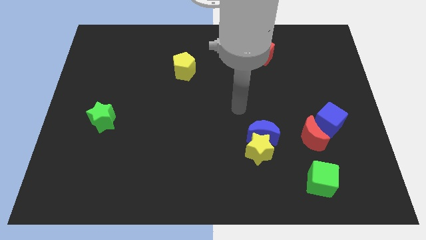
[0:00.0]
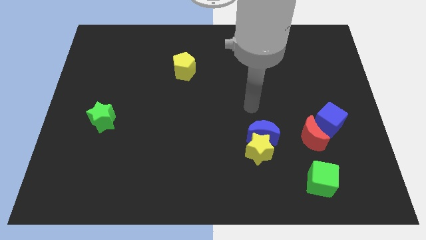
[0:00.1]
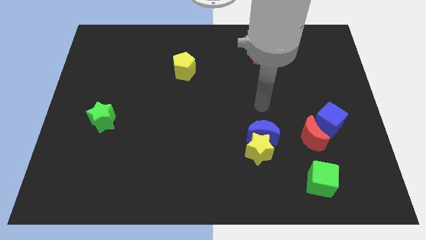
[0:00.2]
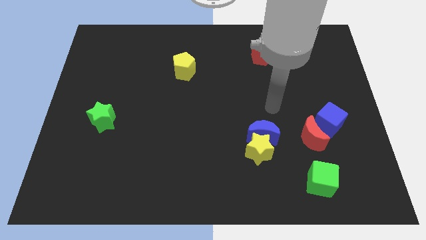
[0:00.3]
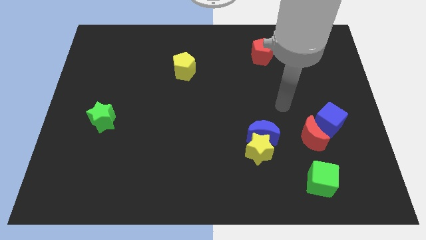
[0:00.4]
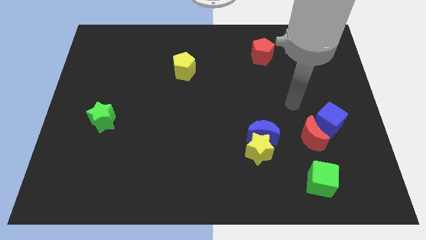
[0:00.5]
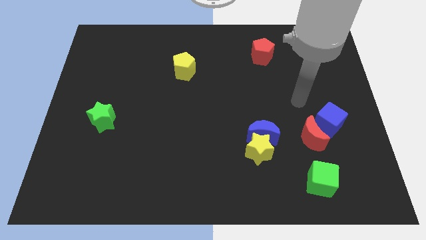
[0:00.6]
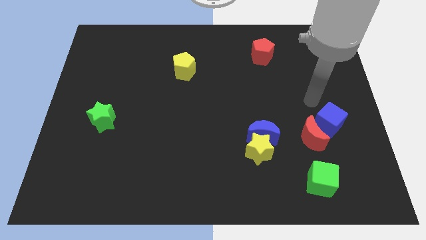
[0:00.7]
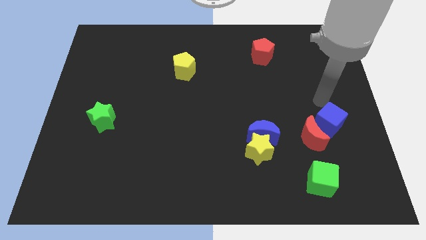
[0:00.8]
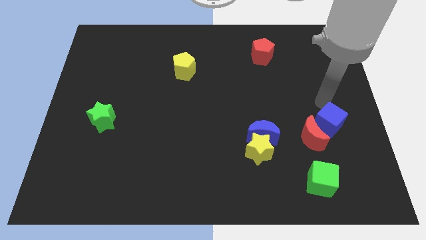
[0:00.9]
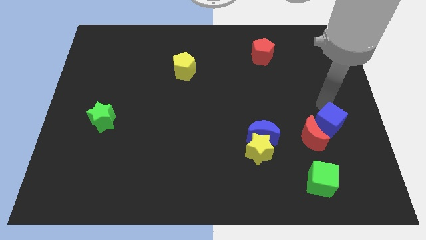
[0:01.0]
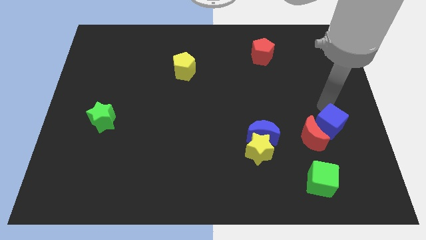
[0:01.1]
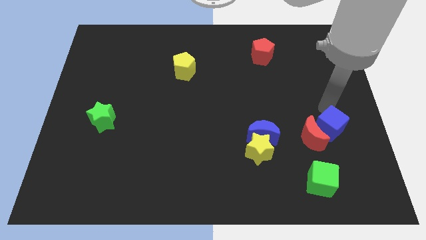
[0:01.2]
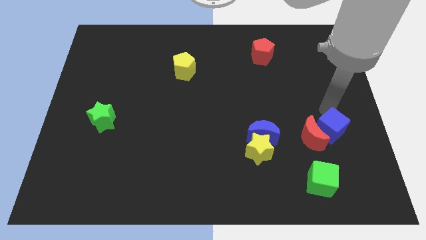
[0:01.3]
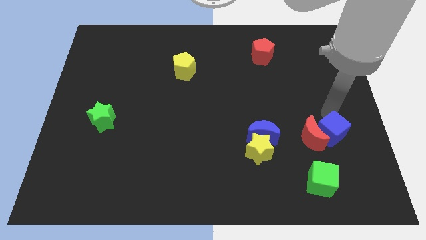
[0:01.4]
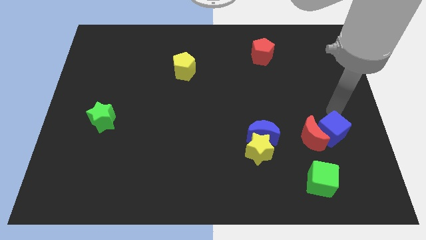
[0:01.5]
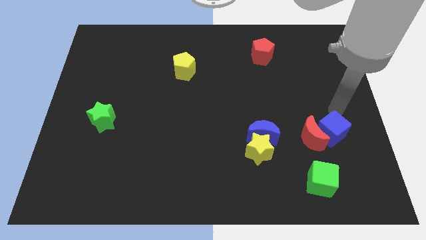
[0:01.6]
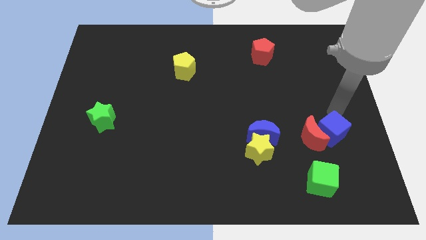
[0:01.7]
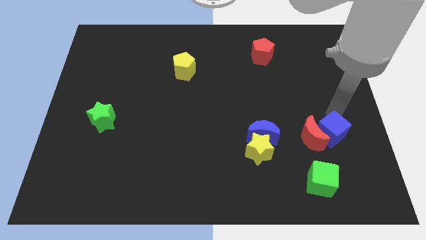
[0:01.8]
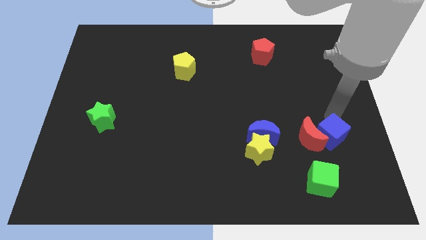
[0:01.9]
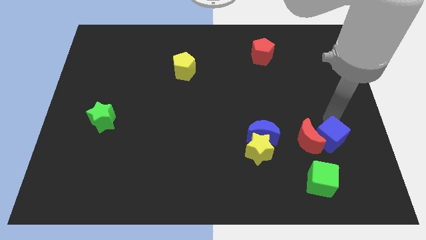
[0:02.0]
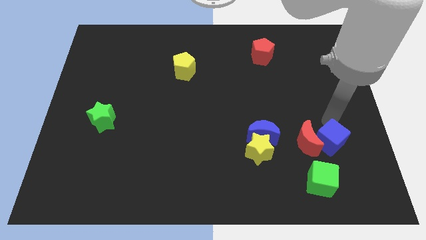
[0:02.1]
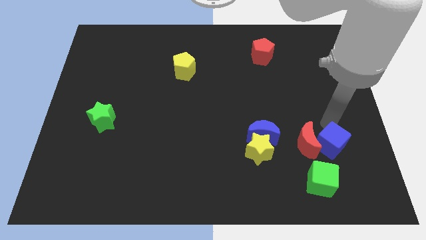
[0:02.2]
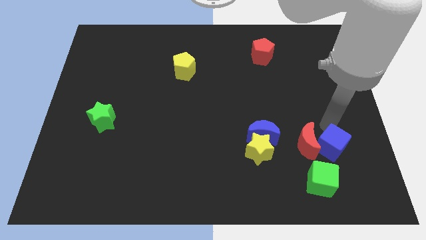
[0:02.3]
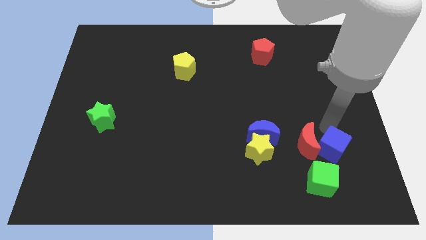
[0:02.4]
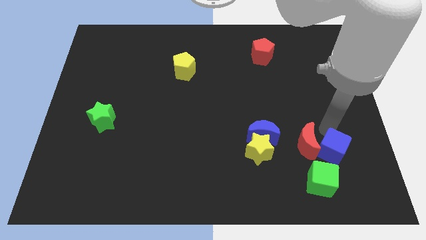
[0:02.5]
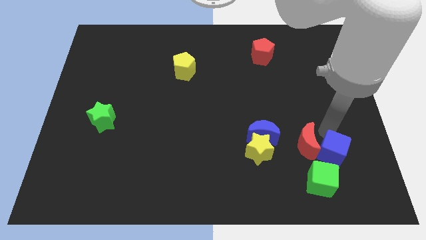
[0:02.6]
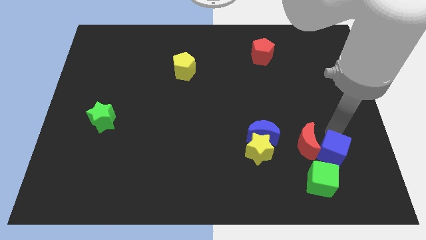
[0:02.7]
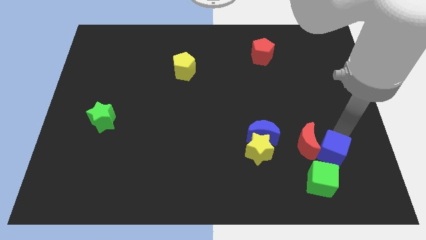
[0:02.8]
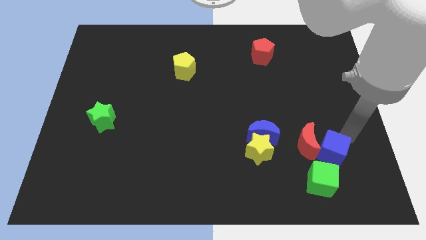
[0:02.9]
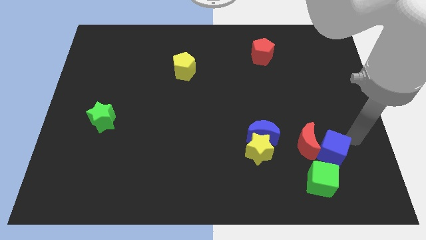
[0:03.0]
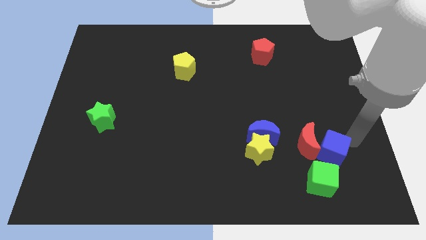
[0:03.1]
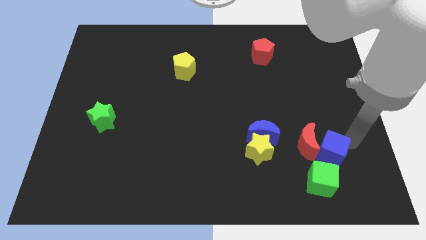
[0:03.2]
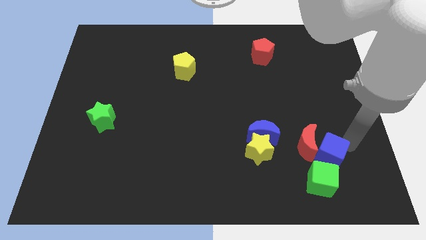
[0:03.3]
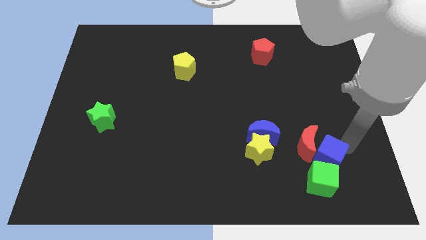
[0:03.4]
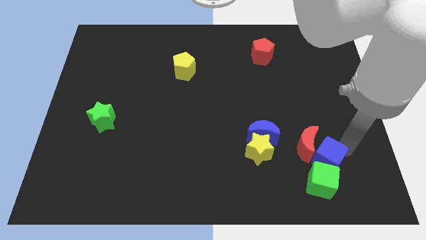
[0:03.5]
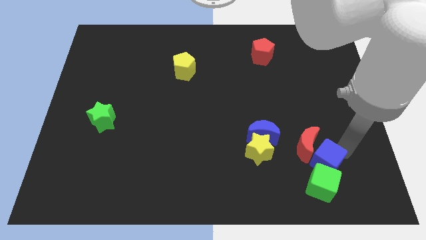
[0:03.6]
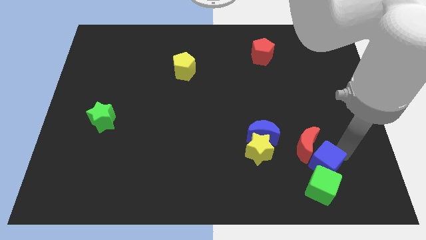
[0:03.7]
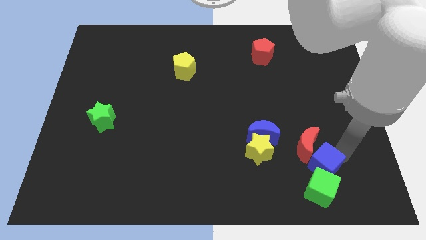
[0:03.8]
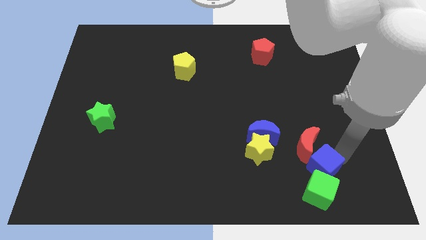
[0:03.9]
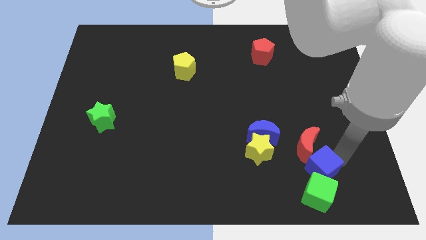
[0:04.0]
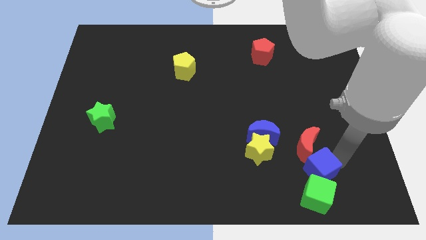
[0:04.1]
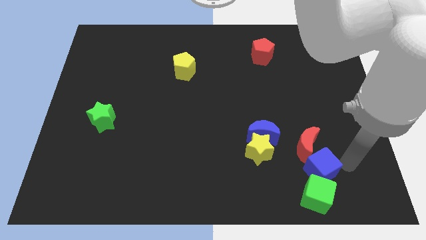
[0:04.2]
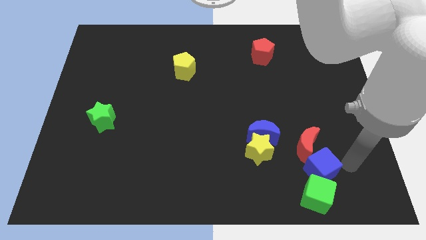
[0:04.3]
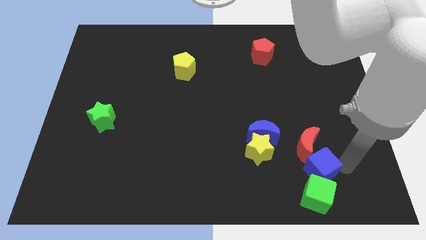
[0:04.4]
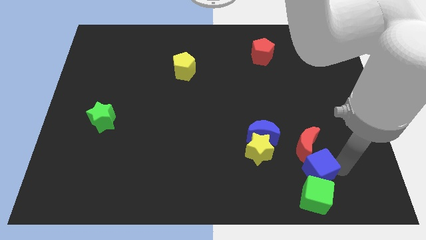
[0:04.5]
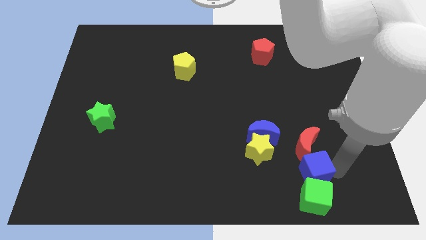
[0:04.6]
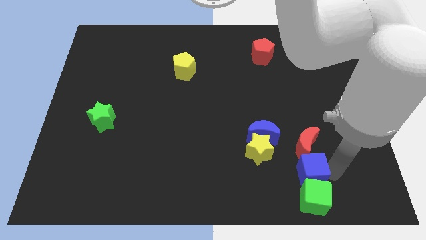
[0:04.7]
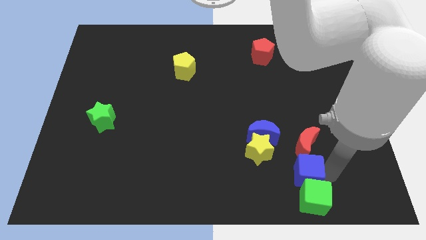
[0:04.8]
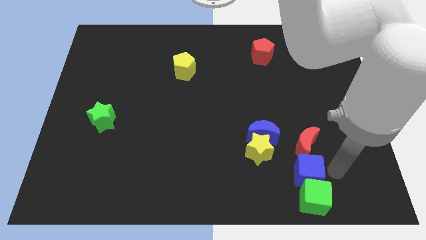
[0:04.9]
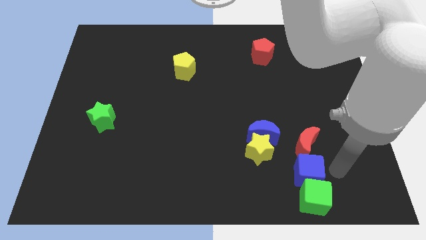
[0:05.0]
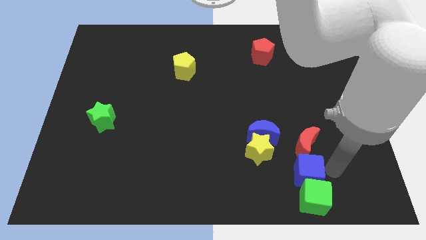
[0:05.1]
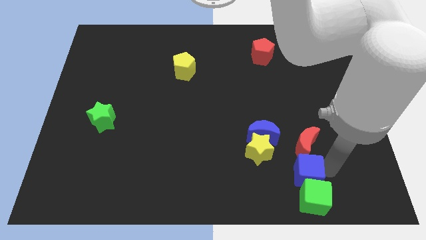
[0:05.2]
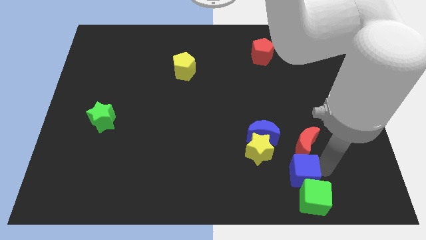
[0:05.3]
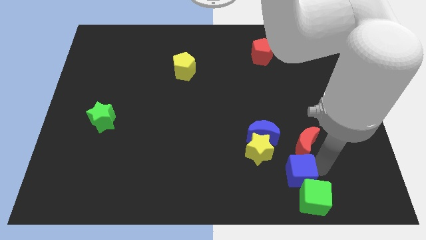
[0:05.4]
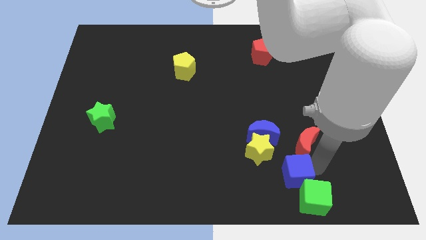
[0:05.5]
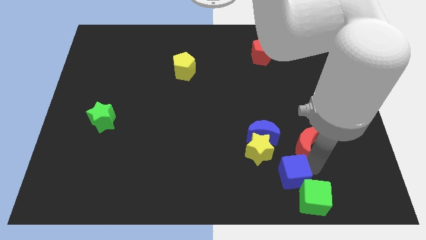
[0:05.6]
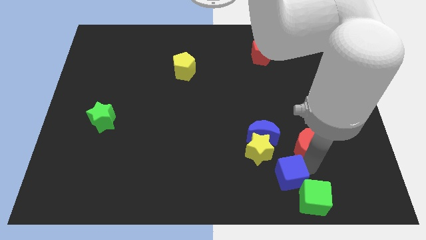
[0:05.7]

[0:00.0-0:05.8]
move the blue cube to the bottom of the blue moon

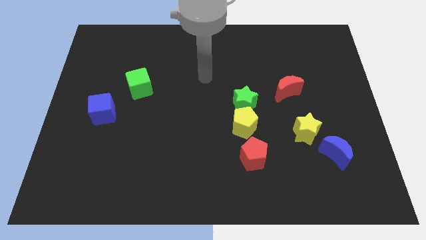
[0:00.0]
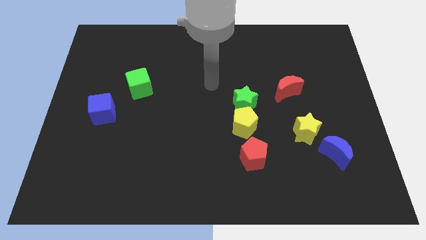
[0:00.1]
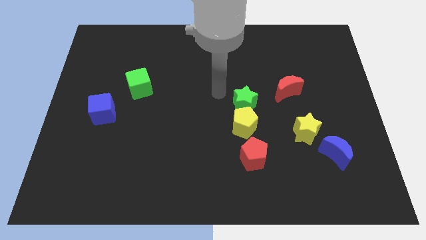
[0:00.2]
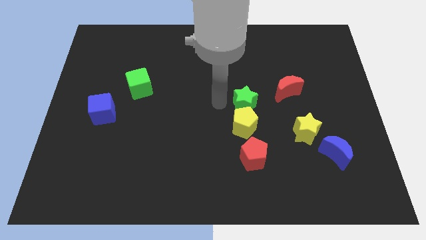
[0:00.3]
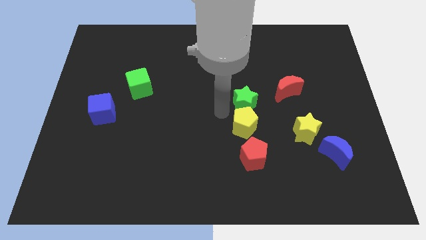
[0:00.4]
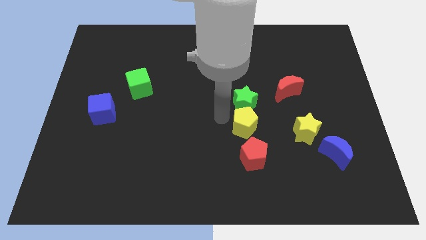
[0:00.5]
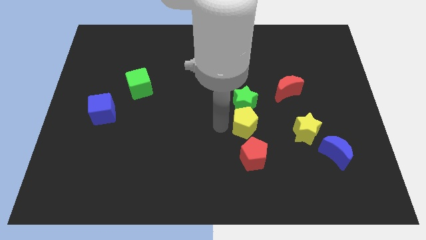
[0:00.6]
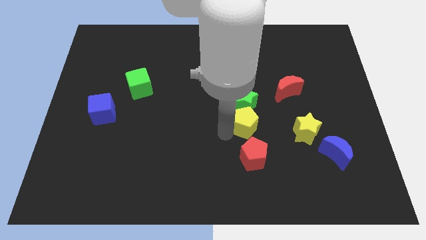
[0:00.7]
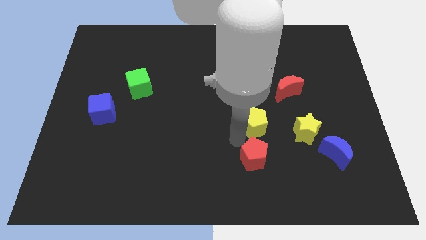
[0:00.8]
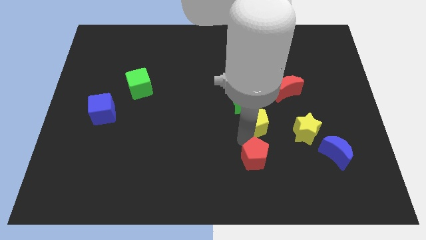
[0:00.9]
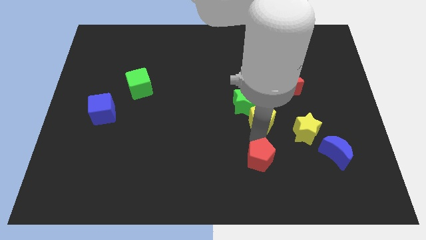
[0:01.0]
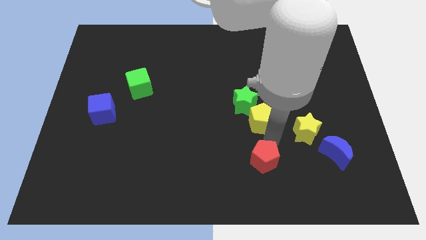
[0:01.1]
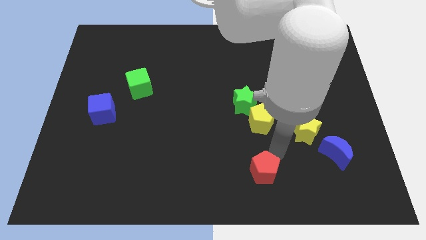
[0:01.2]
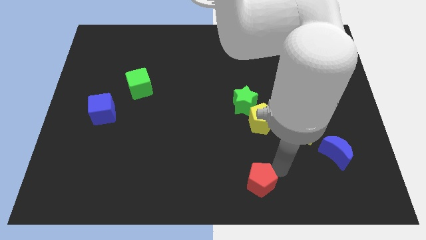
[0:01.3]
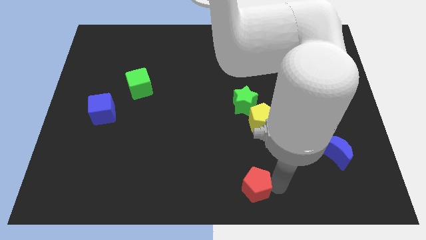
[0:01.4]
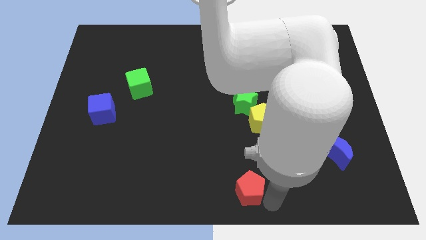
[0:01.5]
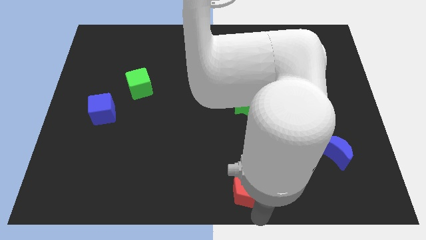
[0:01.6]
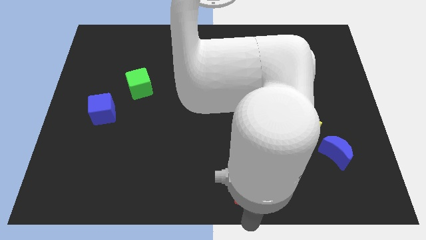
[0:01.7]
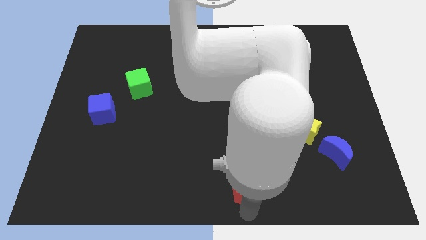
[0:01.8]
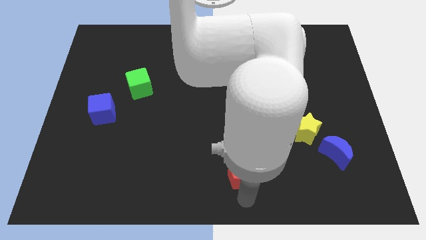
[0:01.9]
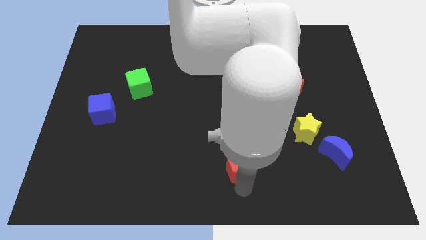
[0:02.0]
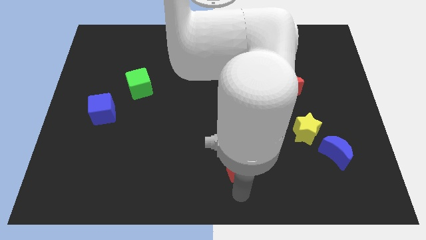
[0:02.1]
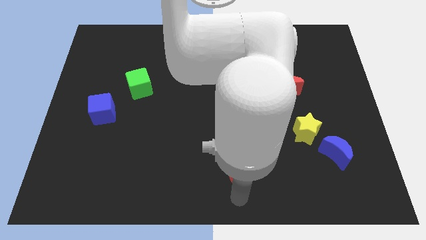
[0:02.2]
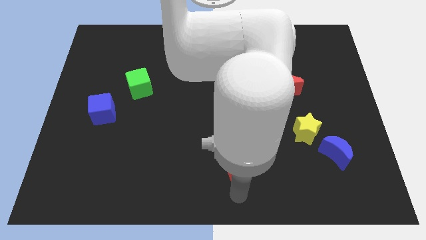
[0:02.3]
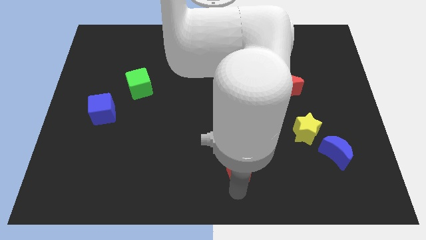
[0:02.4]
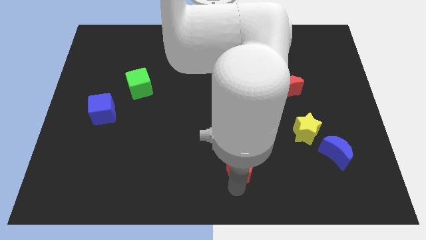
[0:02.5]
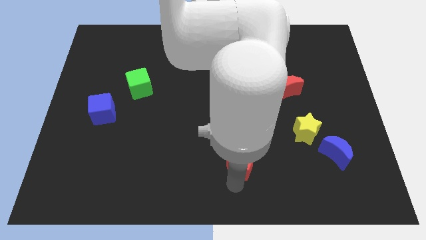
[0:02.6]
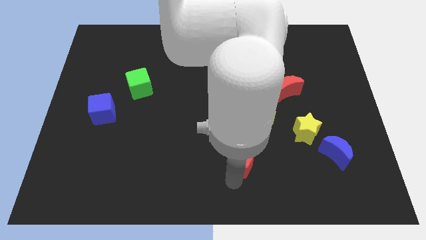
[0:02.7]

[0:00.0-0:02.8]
push the red pentagon diagonally down and to the left of the yellow pentagon
